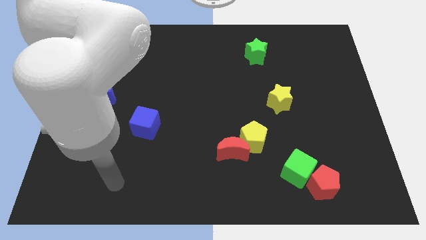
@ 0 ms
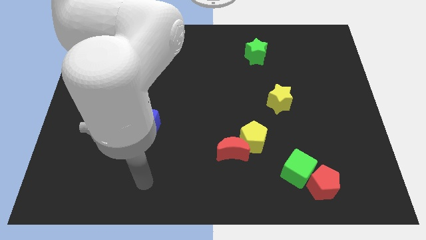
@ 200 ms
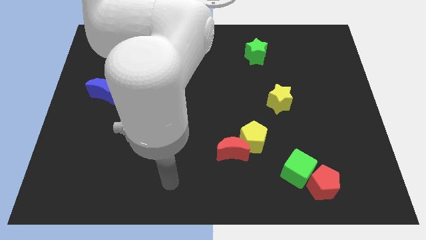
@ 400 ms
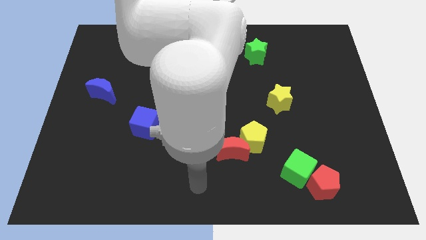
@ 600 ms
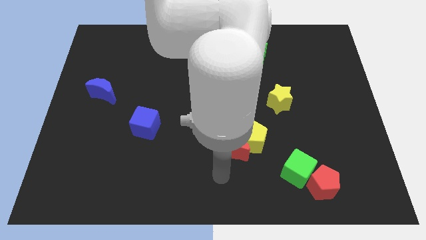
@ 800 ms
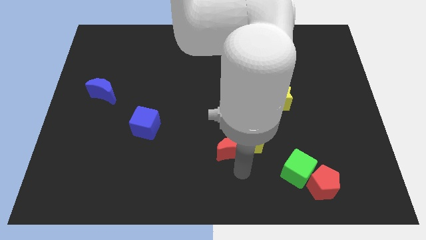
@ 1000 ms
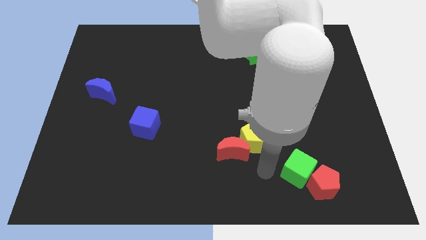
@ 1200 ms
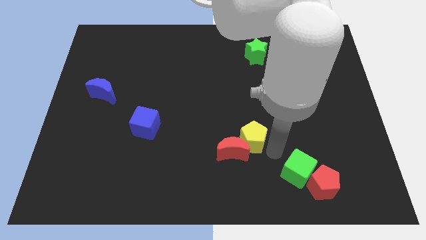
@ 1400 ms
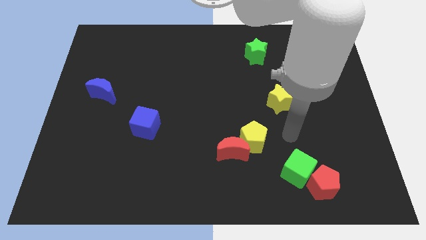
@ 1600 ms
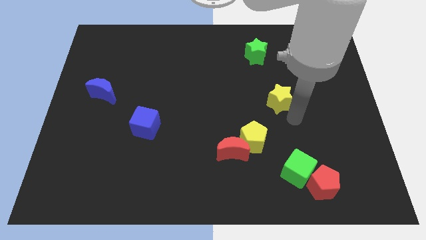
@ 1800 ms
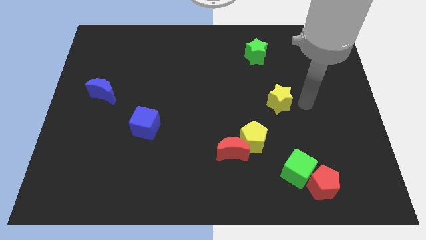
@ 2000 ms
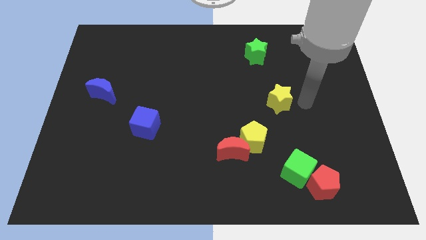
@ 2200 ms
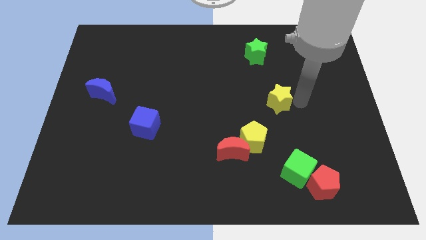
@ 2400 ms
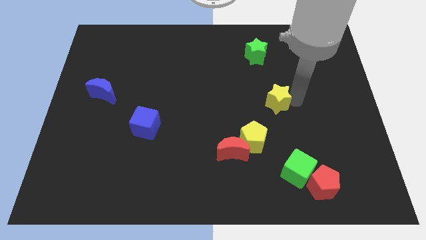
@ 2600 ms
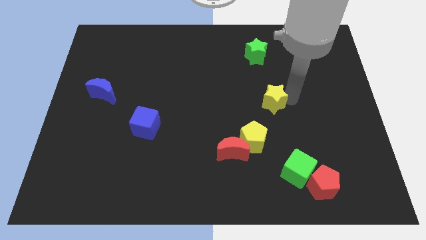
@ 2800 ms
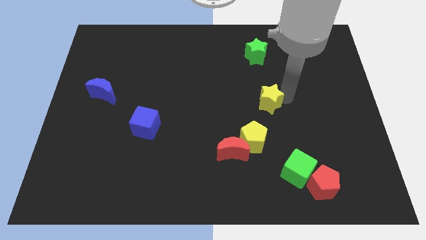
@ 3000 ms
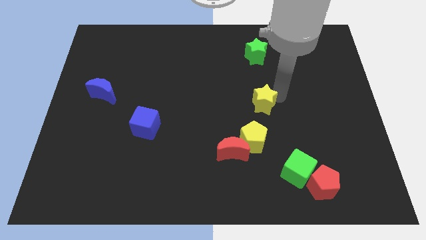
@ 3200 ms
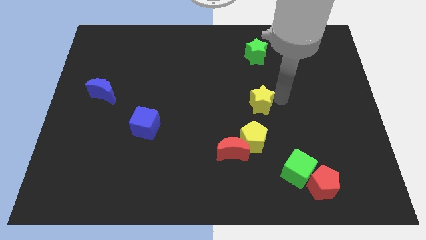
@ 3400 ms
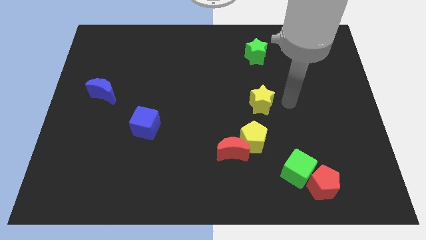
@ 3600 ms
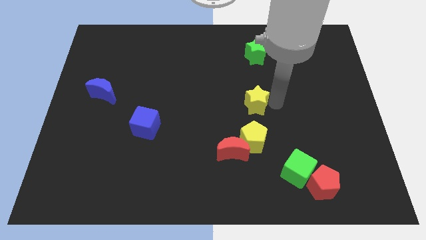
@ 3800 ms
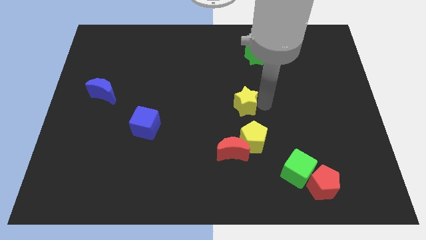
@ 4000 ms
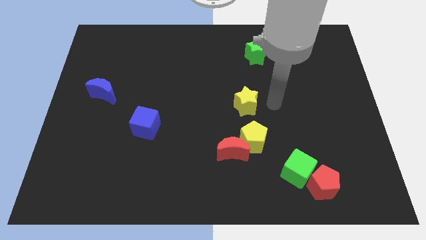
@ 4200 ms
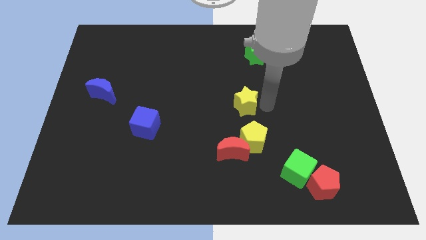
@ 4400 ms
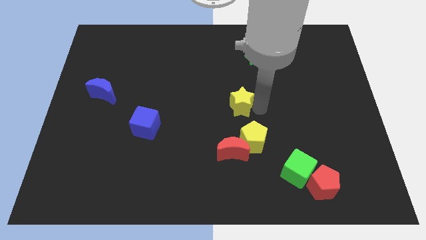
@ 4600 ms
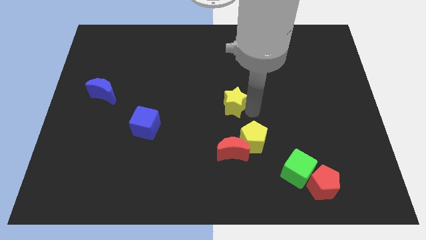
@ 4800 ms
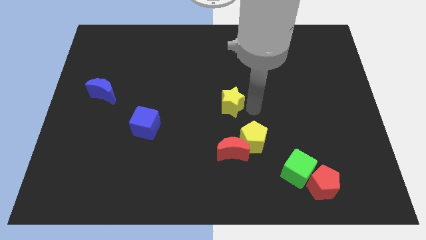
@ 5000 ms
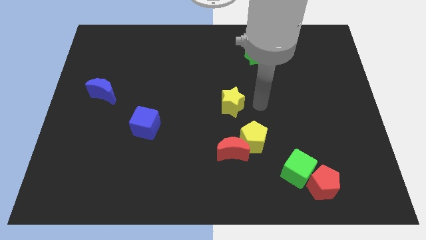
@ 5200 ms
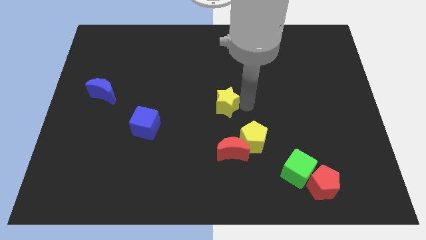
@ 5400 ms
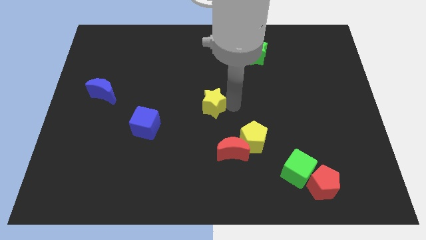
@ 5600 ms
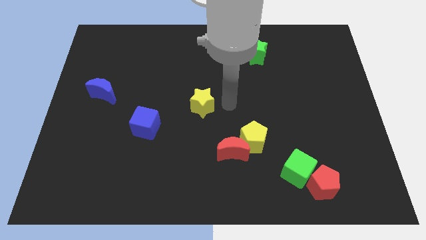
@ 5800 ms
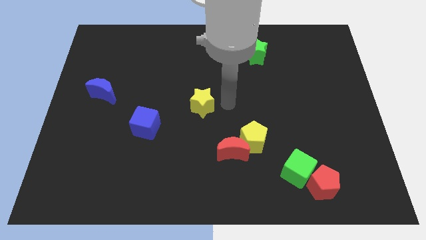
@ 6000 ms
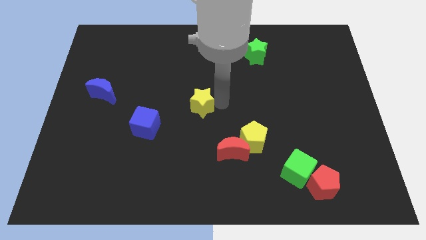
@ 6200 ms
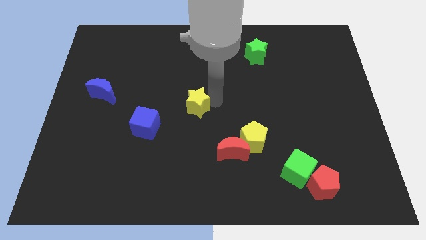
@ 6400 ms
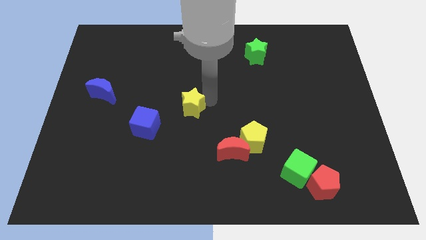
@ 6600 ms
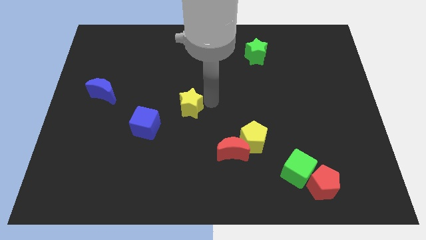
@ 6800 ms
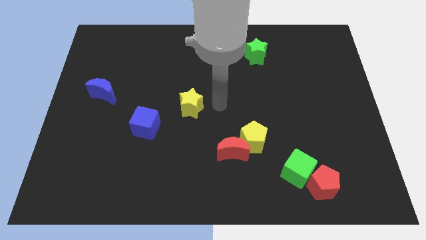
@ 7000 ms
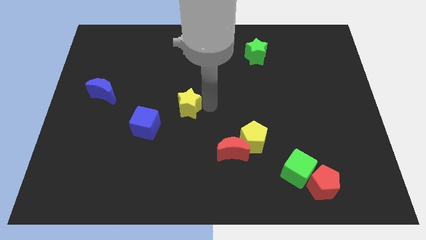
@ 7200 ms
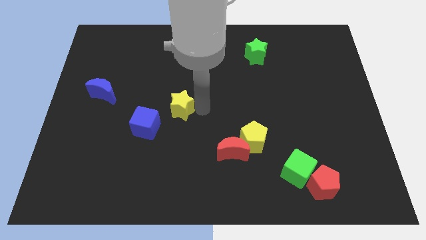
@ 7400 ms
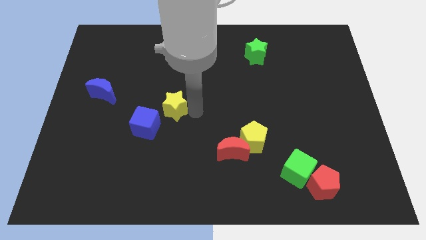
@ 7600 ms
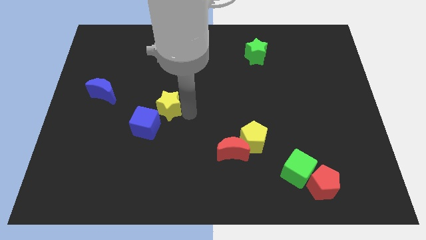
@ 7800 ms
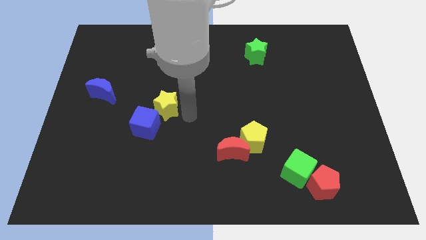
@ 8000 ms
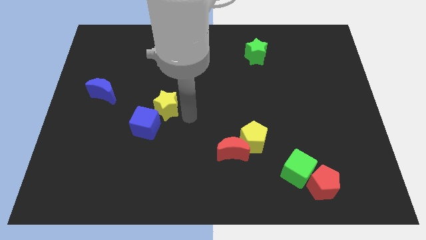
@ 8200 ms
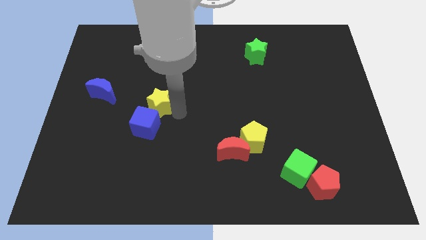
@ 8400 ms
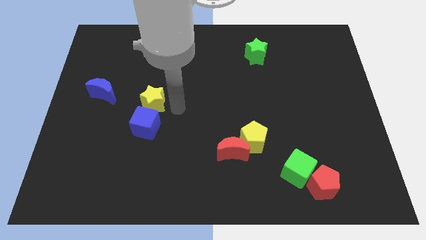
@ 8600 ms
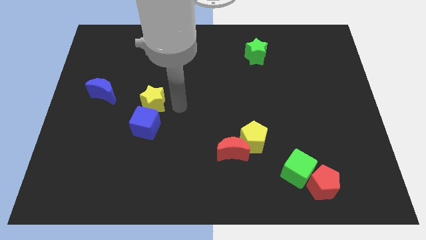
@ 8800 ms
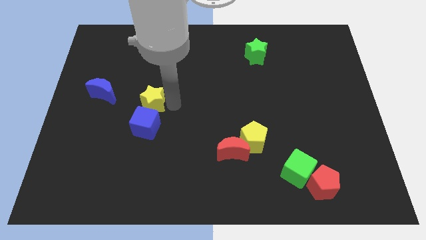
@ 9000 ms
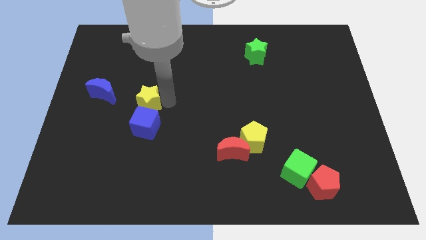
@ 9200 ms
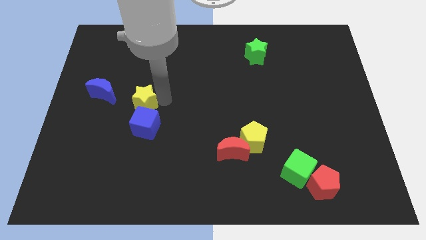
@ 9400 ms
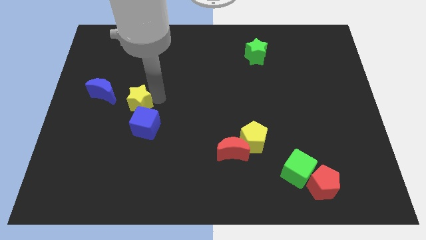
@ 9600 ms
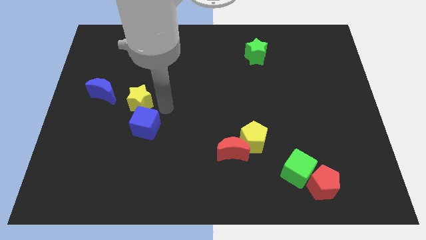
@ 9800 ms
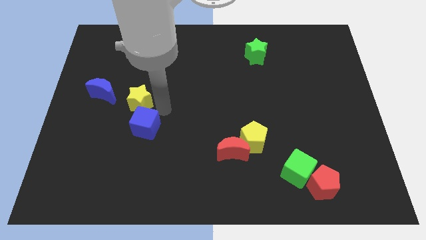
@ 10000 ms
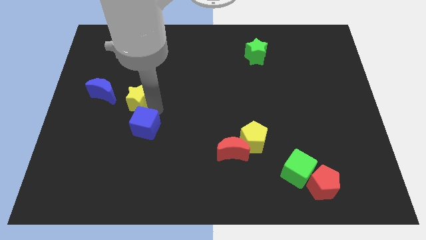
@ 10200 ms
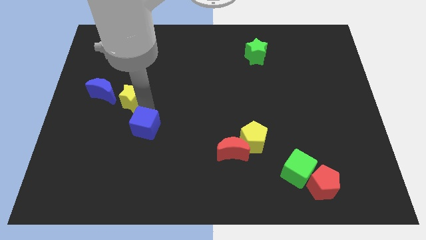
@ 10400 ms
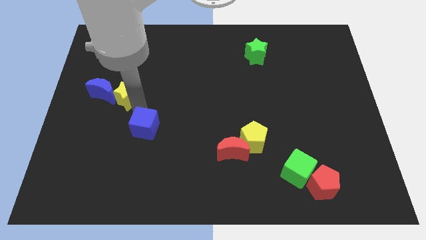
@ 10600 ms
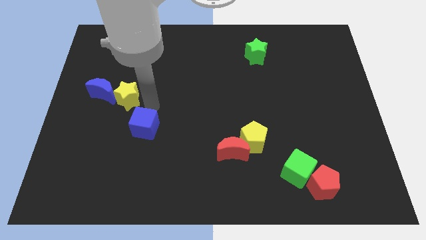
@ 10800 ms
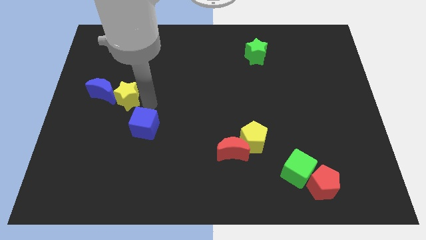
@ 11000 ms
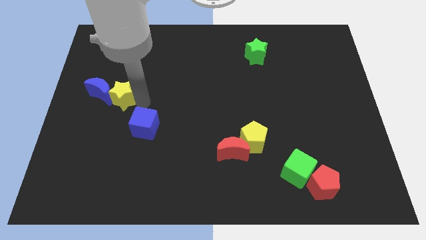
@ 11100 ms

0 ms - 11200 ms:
move the yellow star to the blue moon
